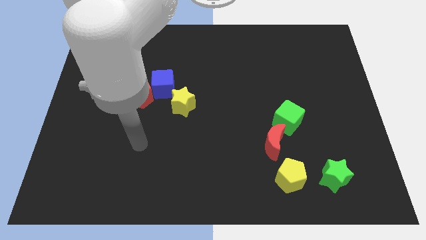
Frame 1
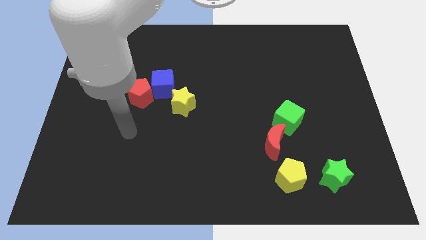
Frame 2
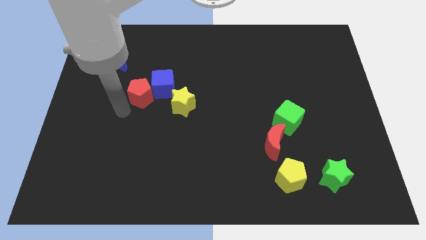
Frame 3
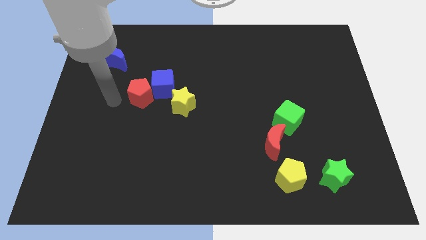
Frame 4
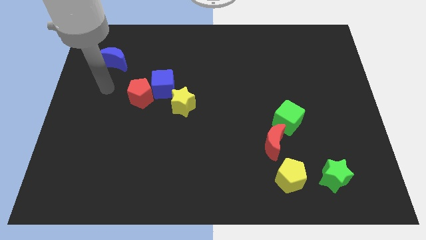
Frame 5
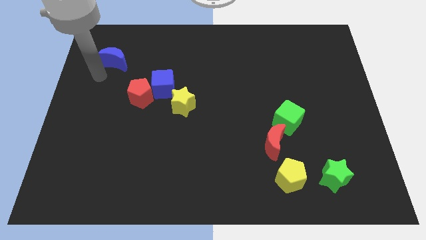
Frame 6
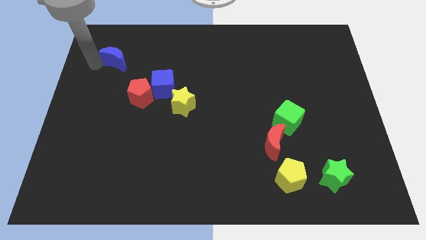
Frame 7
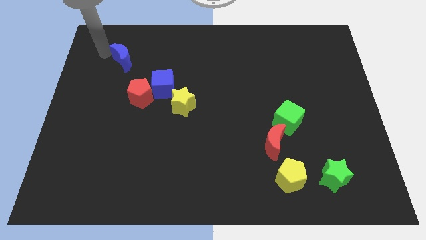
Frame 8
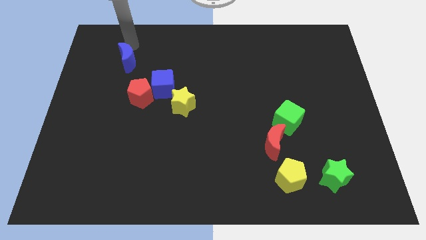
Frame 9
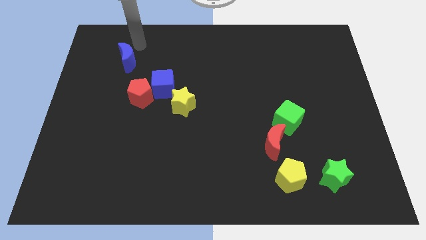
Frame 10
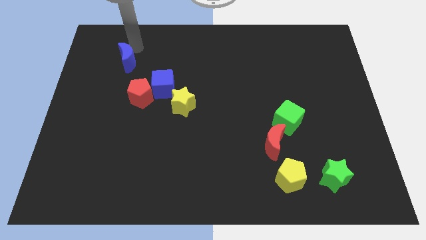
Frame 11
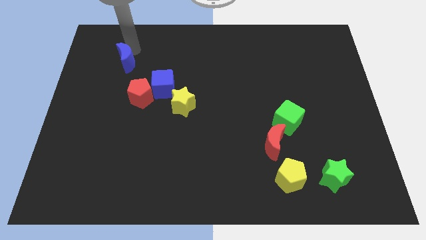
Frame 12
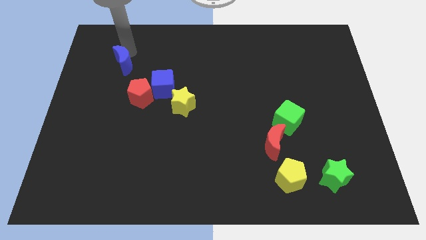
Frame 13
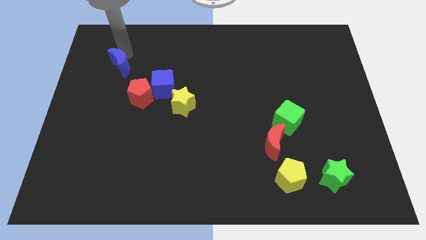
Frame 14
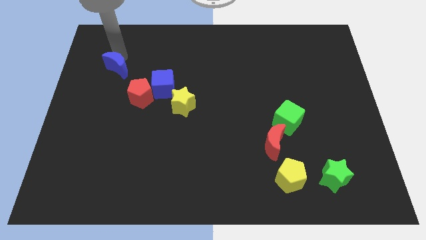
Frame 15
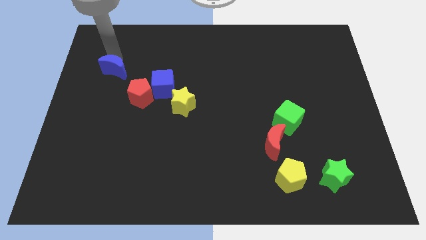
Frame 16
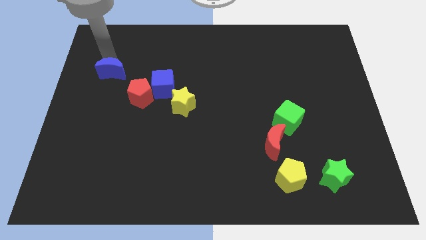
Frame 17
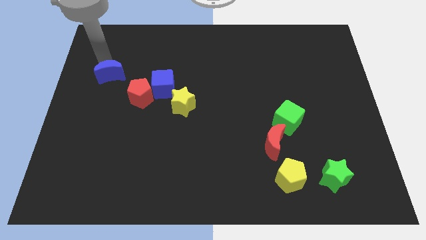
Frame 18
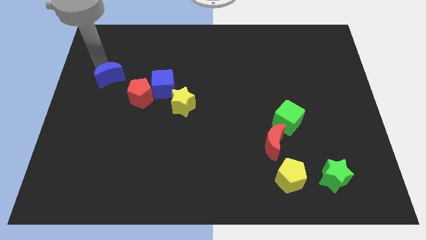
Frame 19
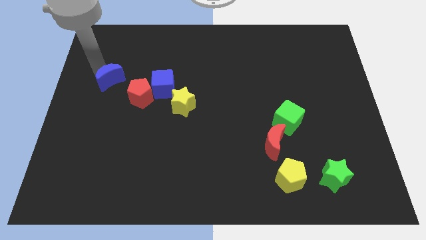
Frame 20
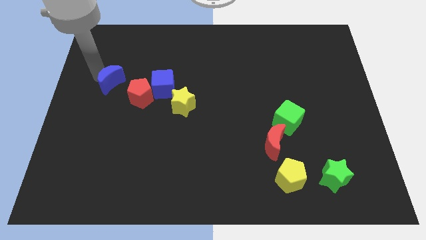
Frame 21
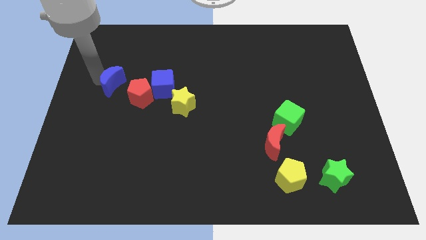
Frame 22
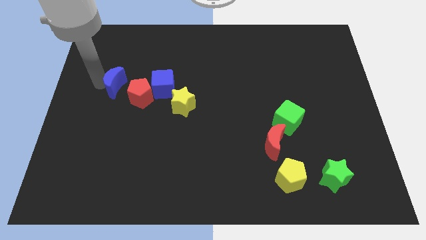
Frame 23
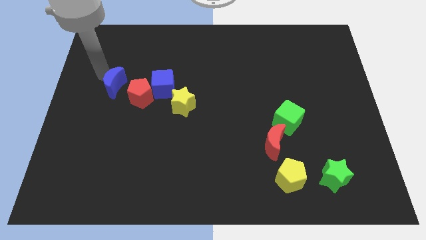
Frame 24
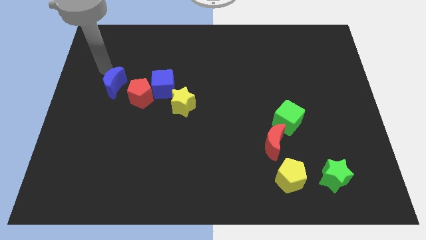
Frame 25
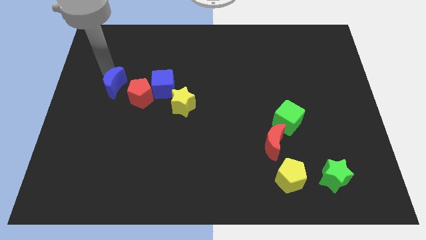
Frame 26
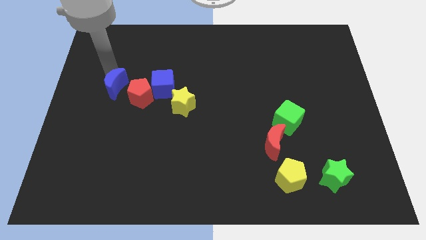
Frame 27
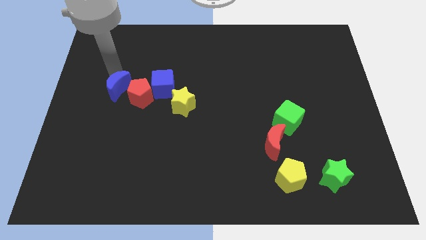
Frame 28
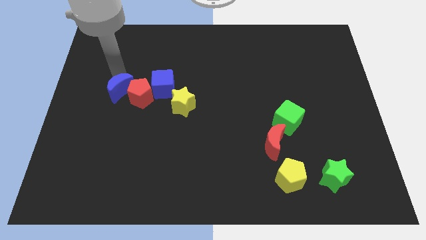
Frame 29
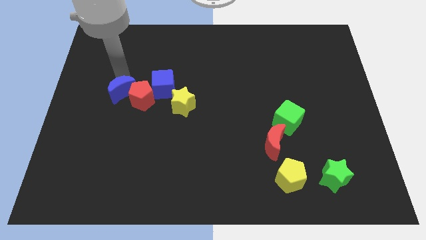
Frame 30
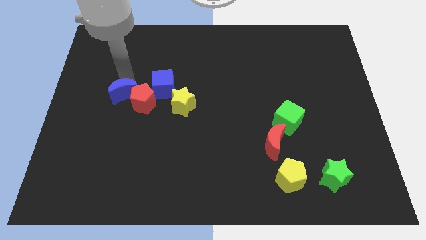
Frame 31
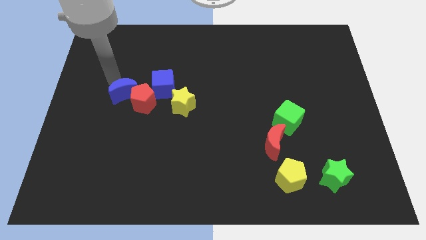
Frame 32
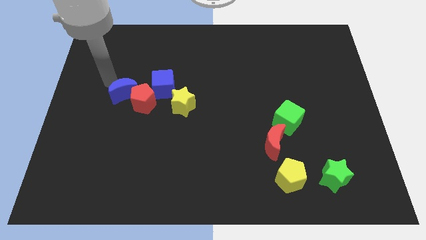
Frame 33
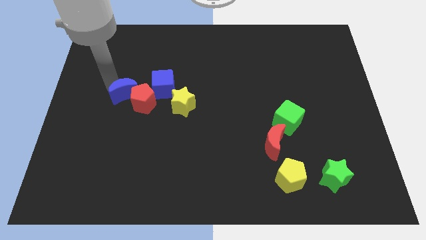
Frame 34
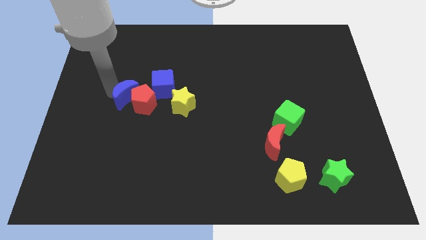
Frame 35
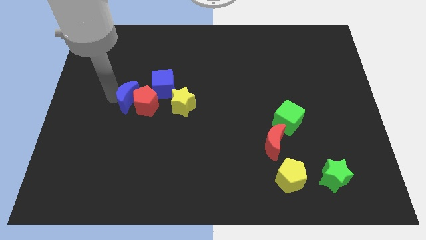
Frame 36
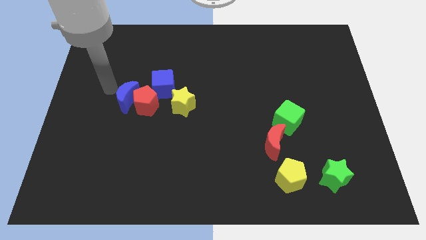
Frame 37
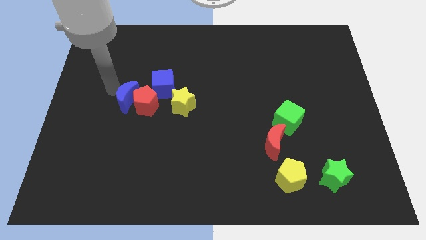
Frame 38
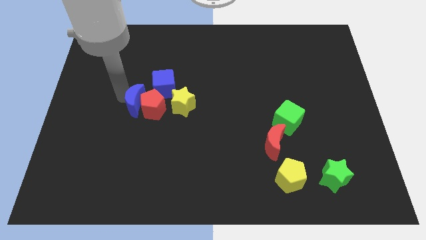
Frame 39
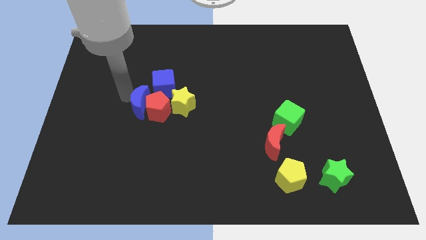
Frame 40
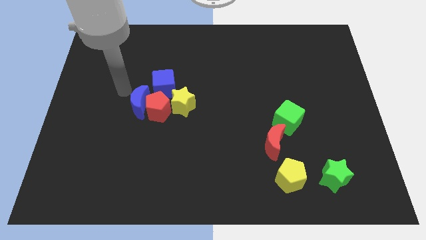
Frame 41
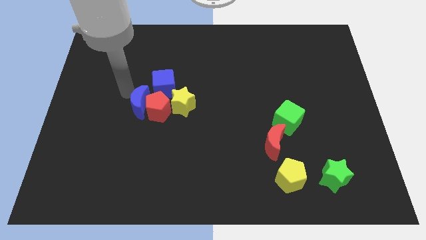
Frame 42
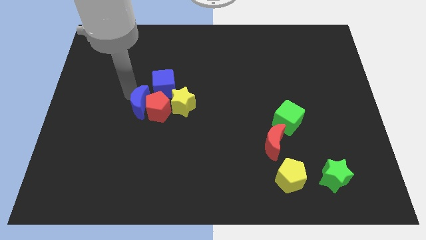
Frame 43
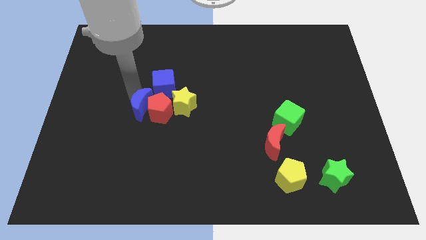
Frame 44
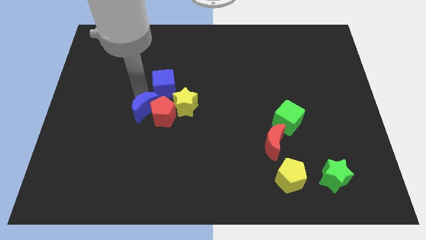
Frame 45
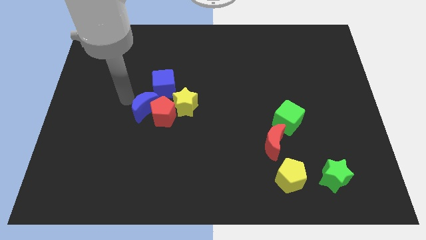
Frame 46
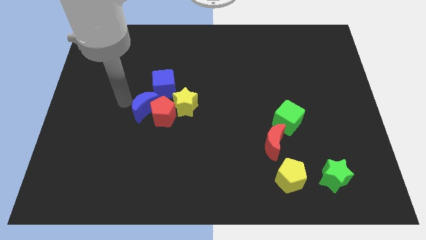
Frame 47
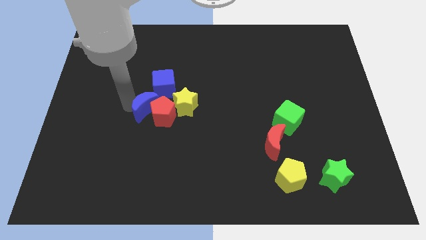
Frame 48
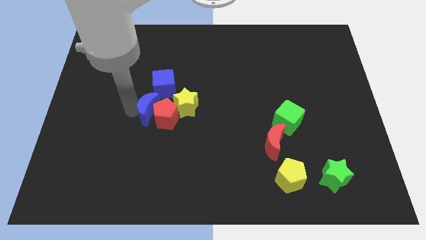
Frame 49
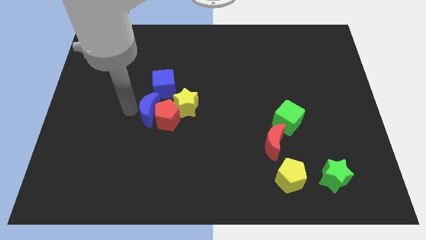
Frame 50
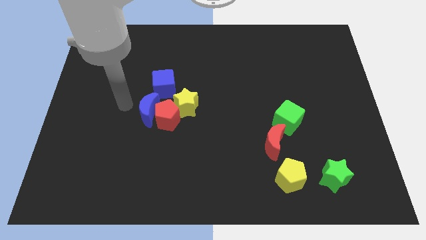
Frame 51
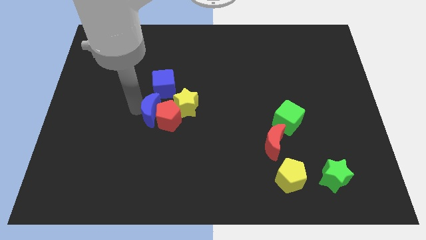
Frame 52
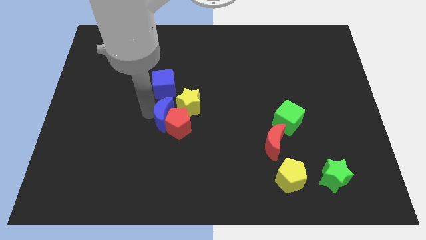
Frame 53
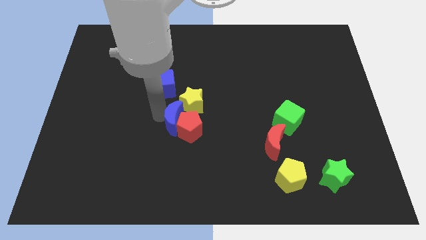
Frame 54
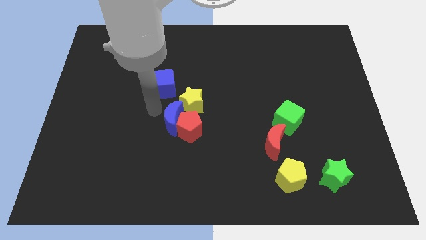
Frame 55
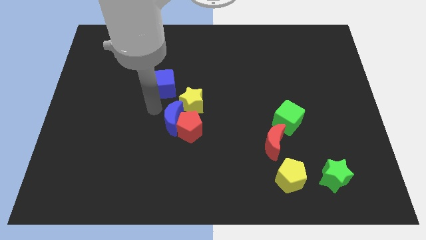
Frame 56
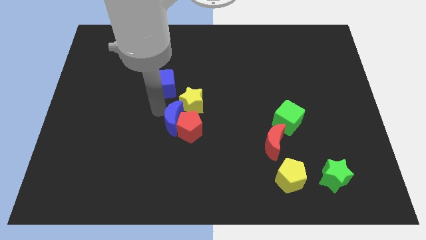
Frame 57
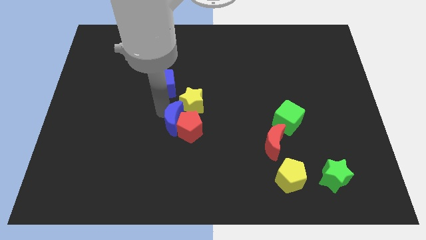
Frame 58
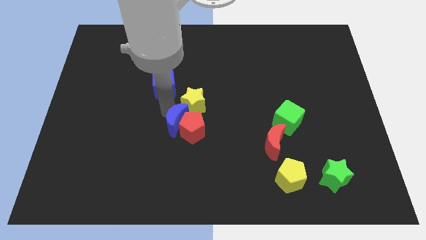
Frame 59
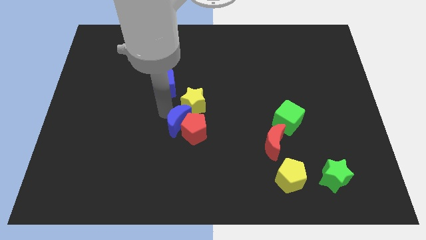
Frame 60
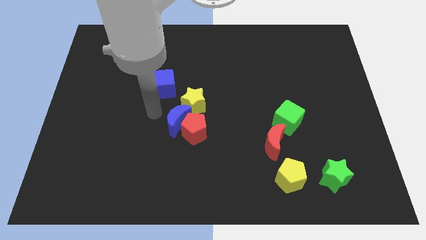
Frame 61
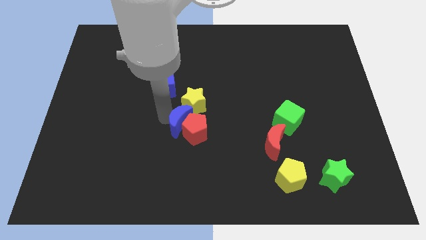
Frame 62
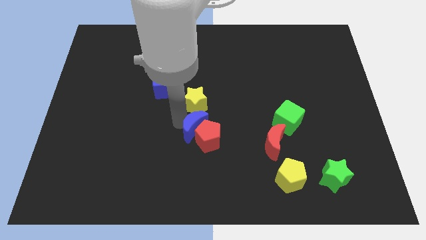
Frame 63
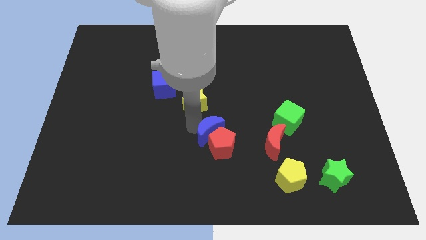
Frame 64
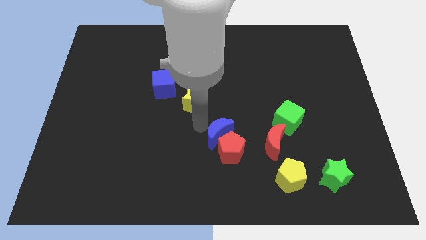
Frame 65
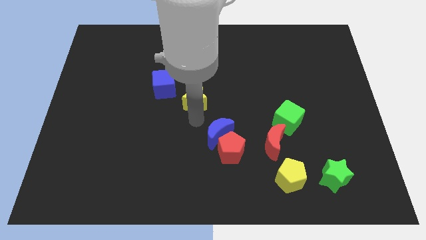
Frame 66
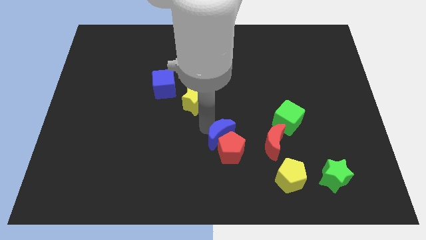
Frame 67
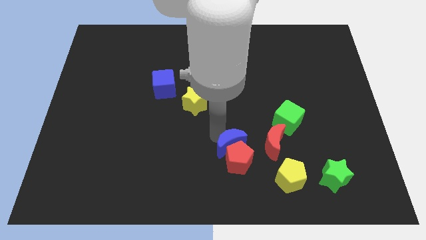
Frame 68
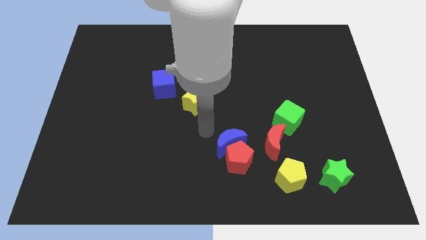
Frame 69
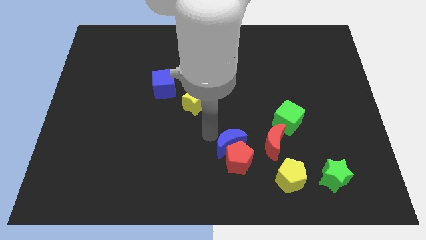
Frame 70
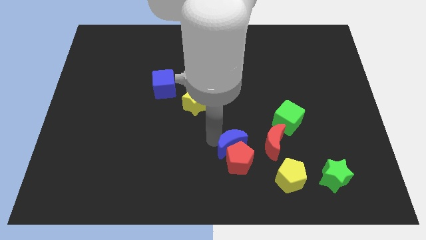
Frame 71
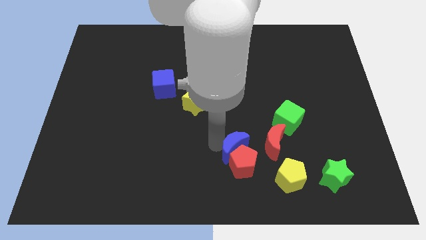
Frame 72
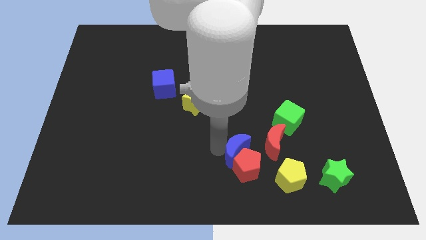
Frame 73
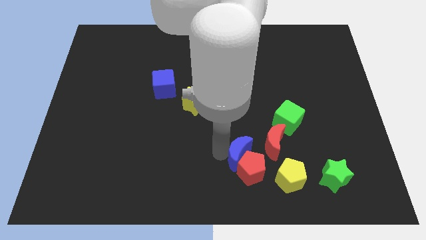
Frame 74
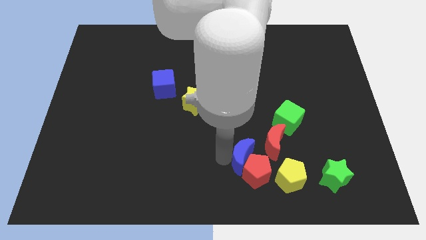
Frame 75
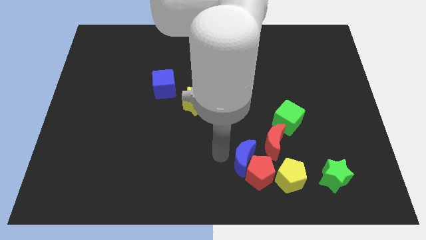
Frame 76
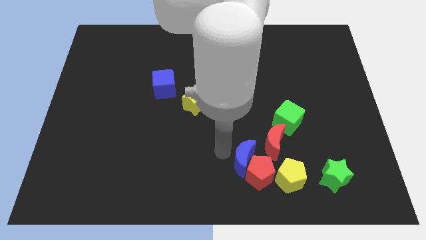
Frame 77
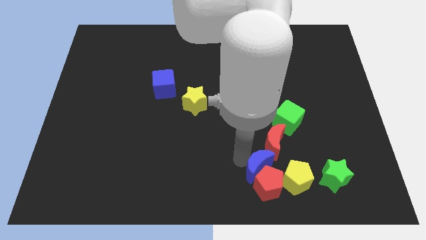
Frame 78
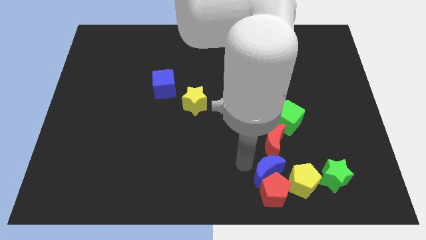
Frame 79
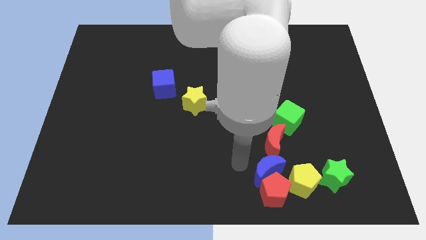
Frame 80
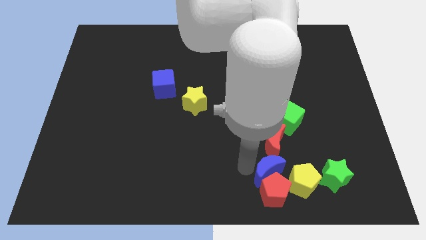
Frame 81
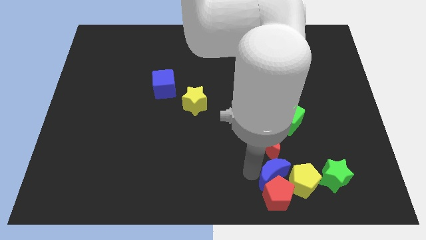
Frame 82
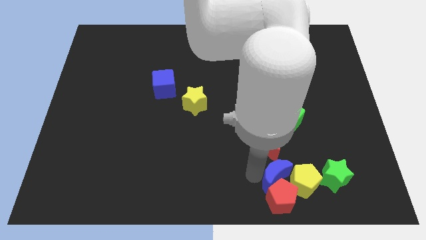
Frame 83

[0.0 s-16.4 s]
put the blue moon next to the yellow pentagon
